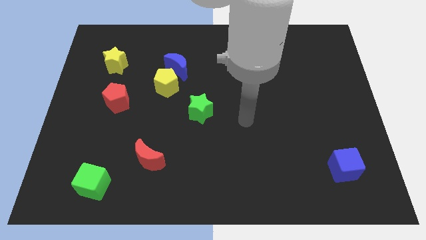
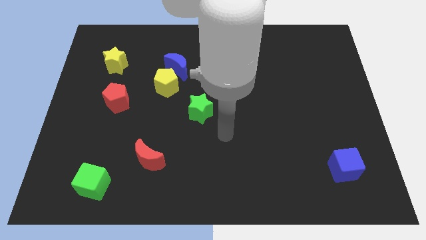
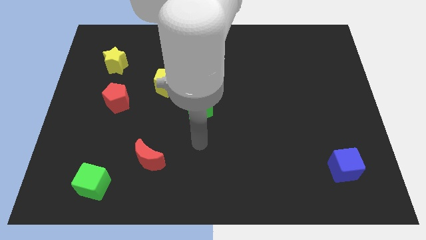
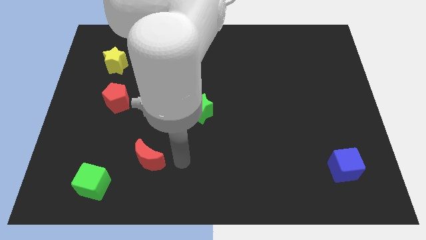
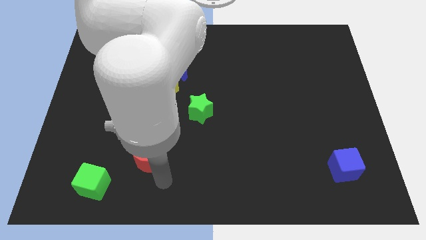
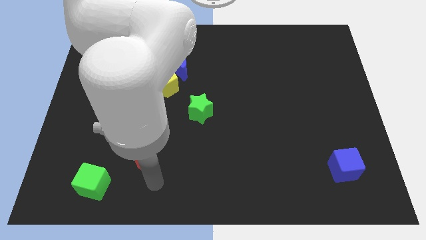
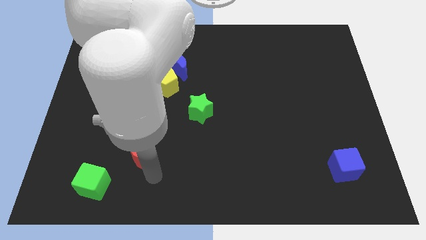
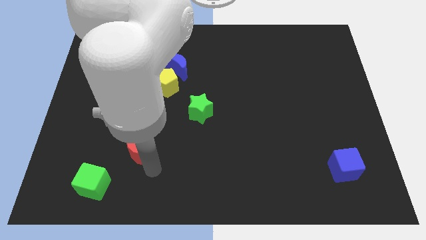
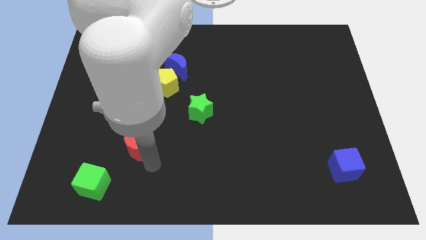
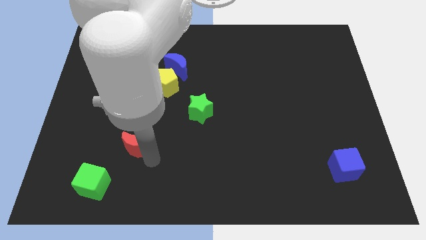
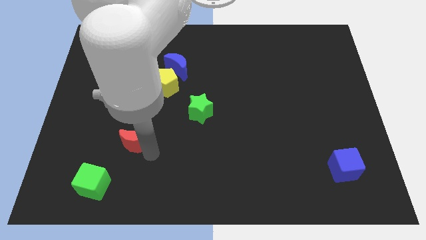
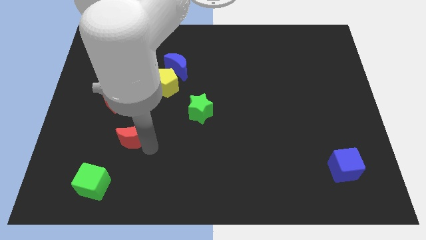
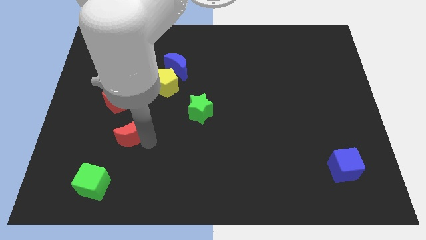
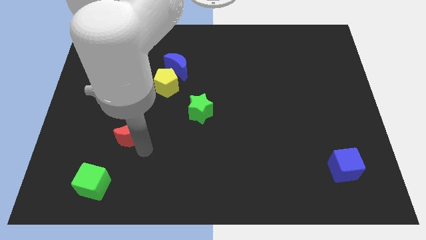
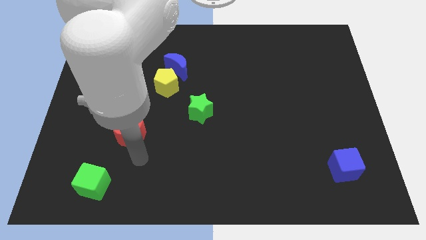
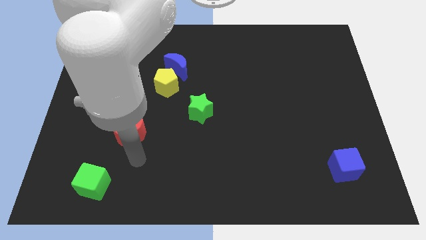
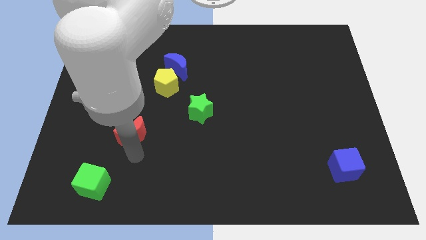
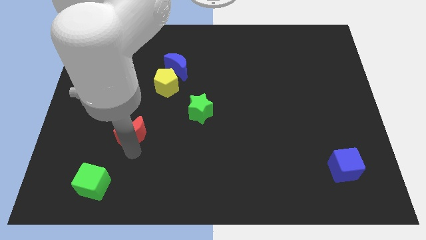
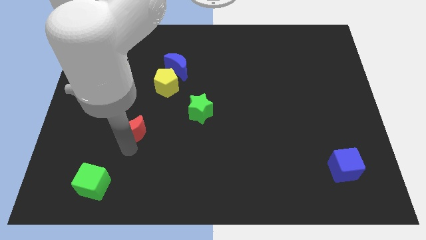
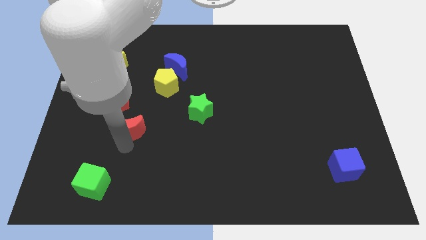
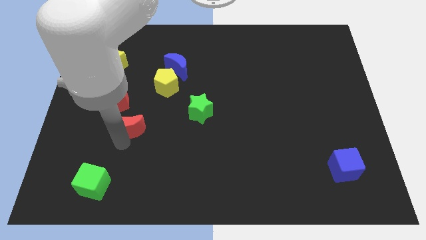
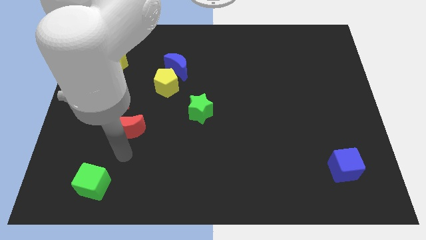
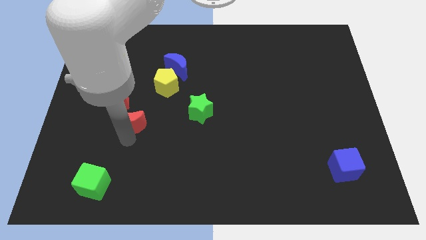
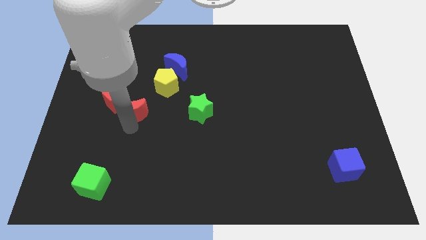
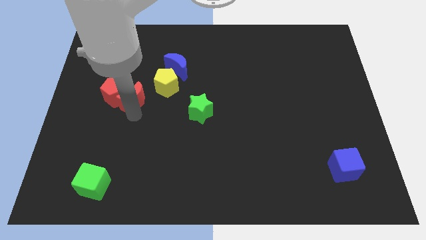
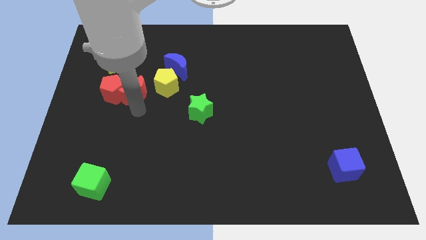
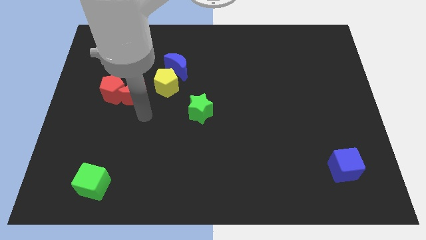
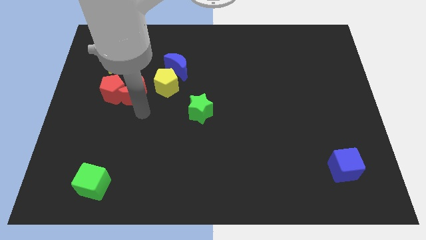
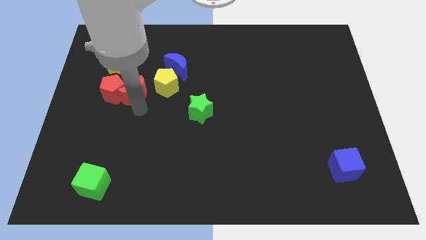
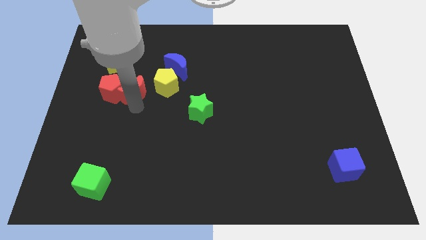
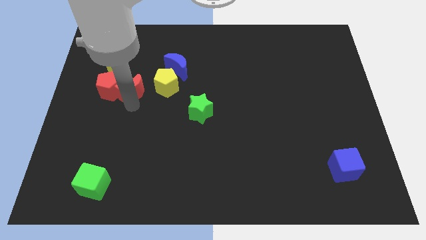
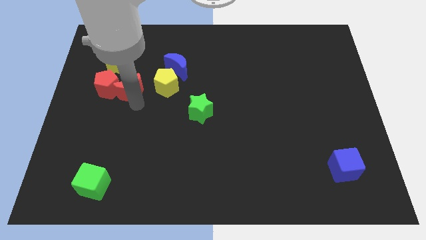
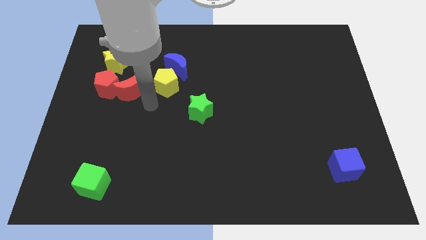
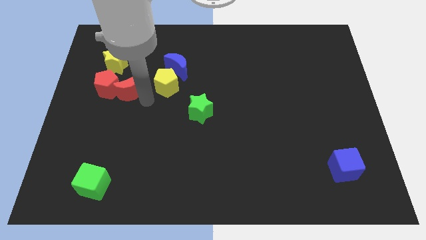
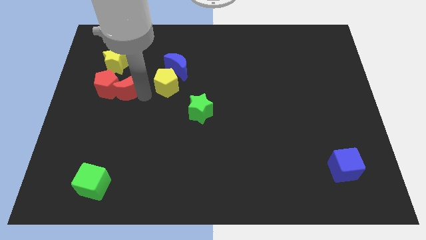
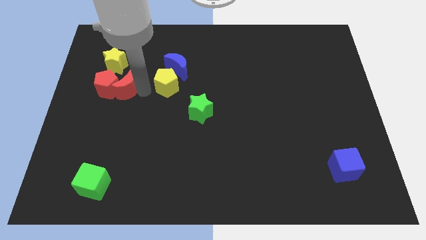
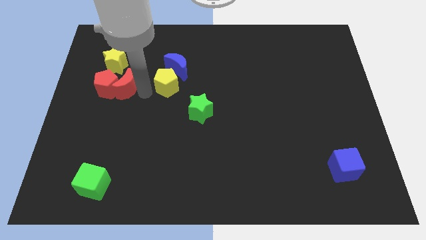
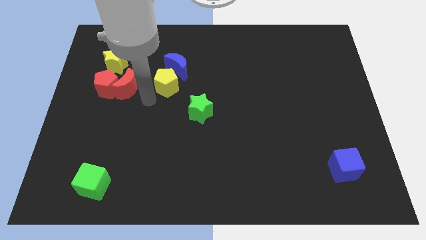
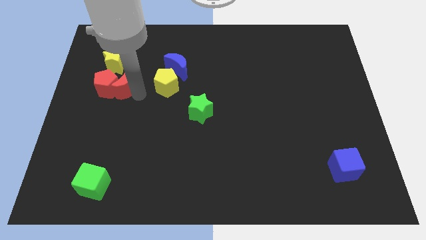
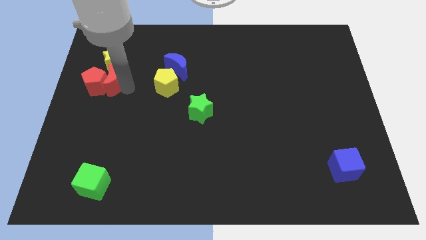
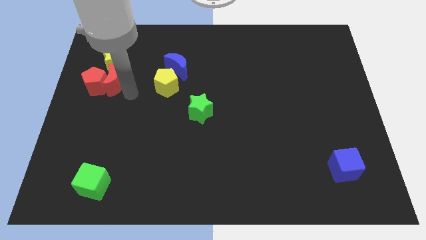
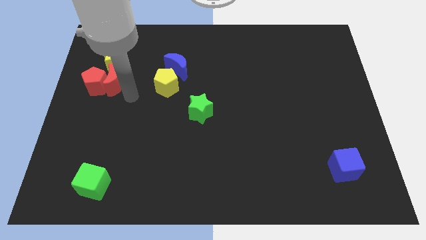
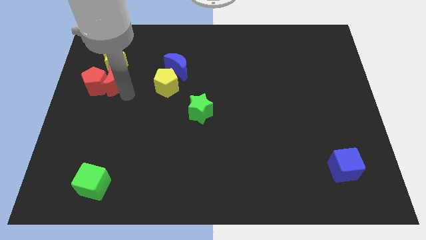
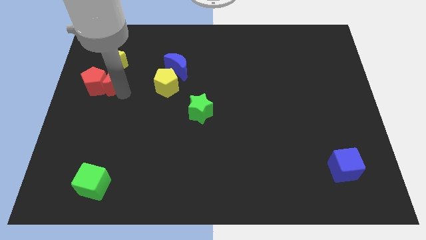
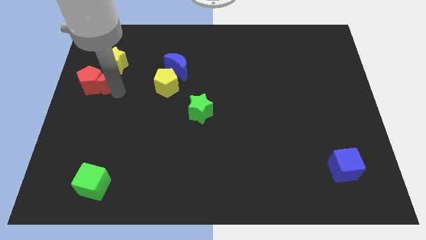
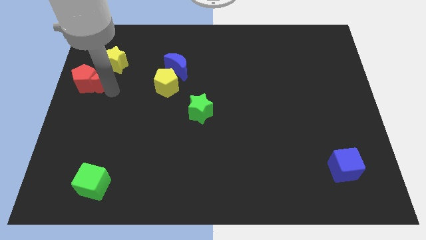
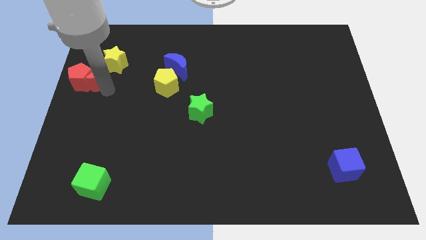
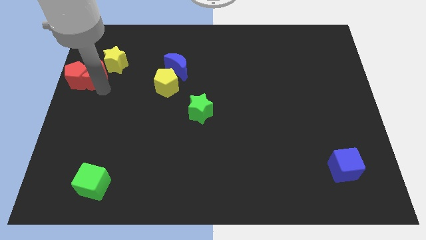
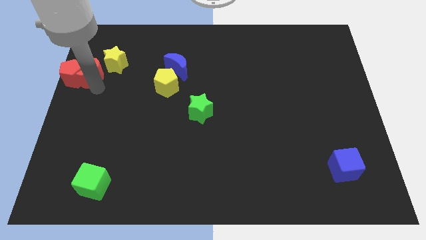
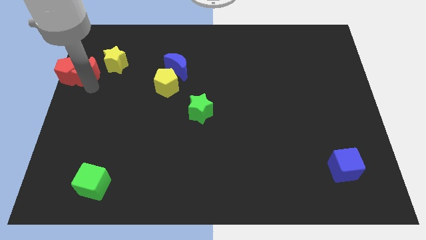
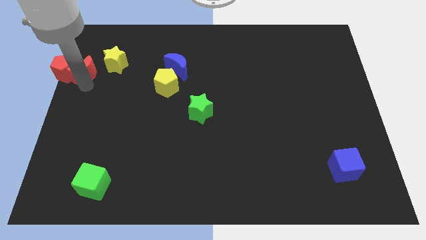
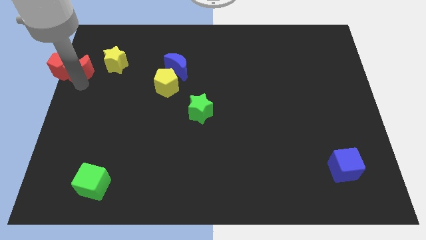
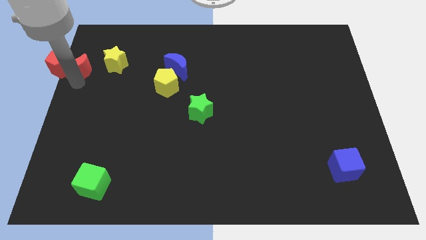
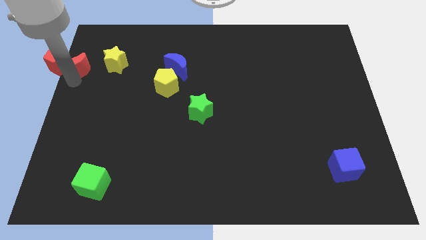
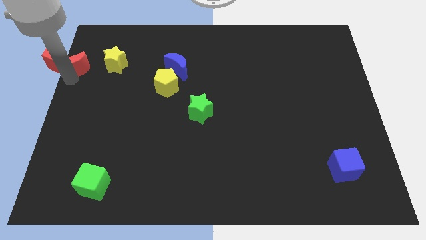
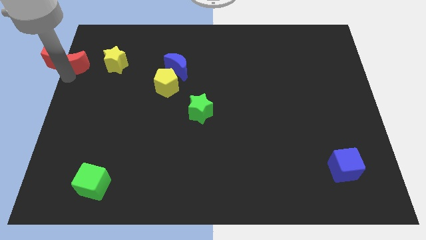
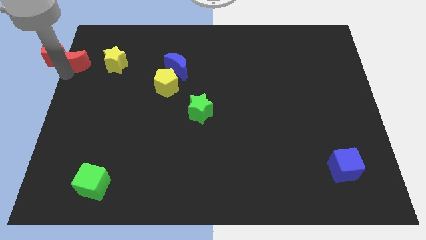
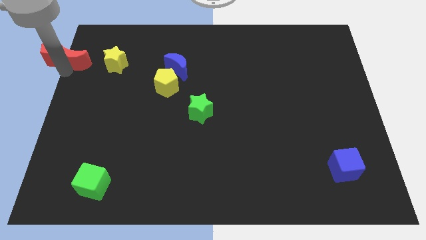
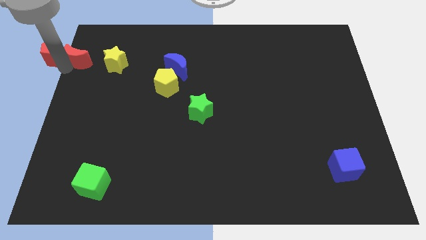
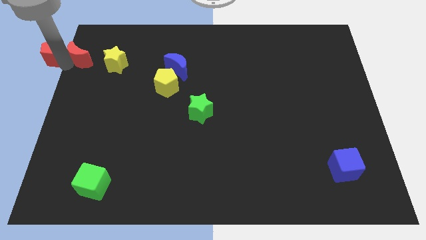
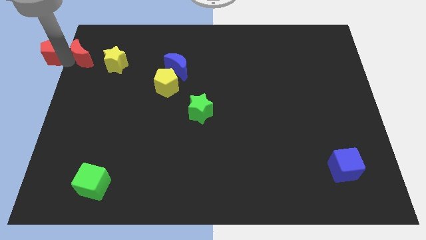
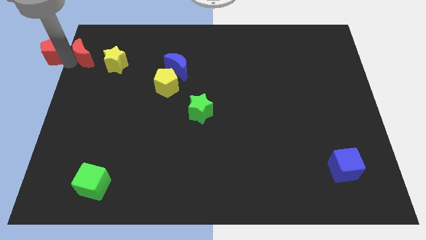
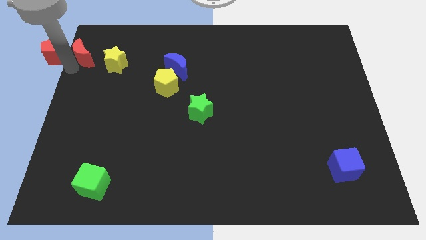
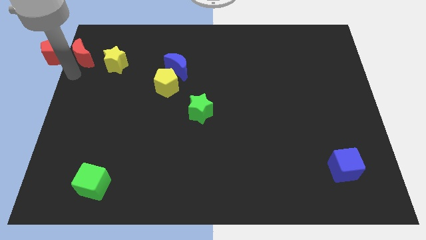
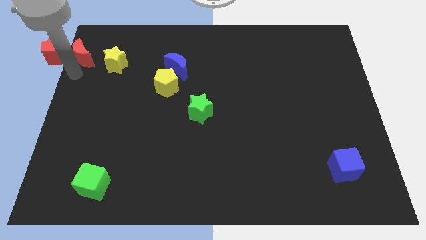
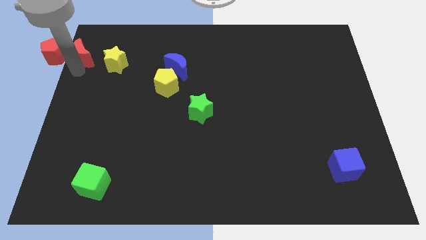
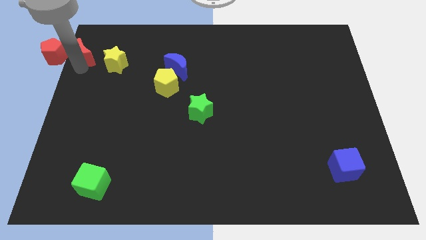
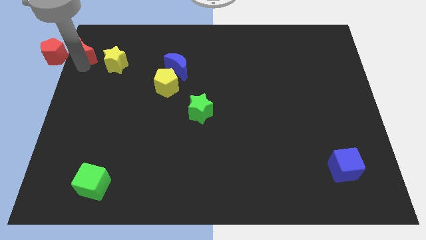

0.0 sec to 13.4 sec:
push the red moon to the top left corner
